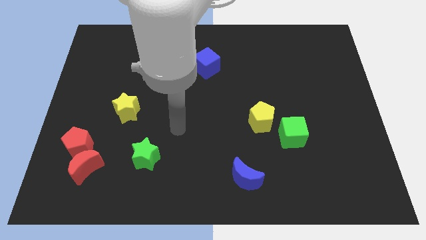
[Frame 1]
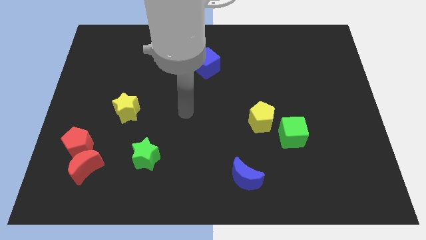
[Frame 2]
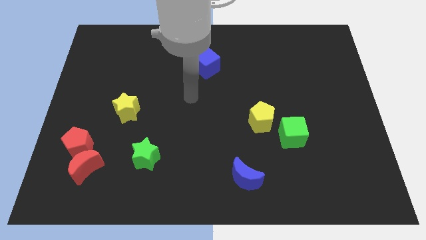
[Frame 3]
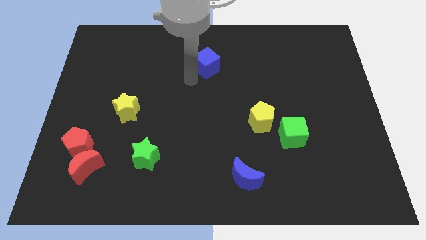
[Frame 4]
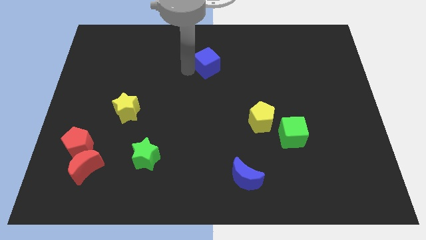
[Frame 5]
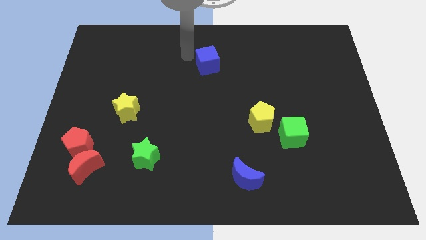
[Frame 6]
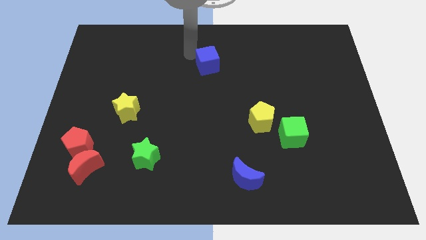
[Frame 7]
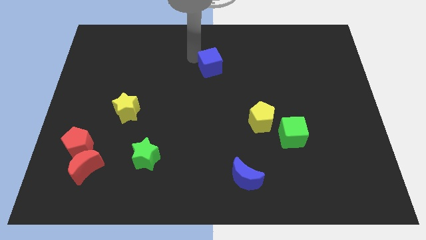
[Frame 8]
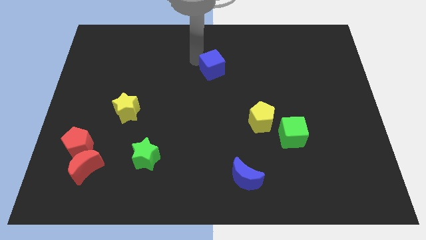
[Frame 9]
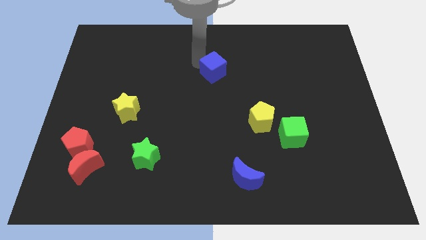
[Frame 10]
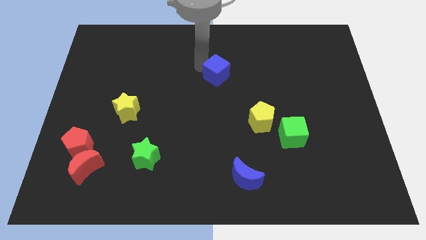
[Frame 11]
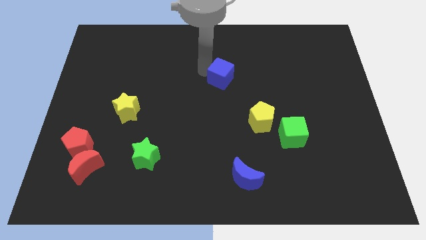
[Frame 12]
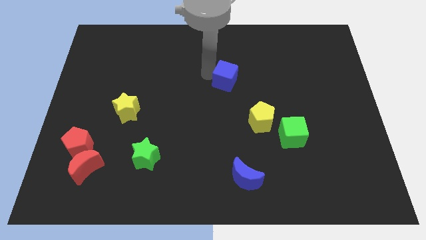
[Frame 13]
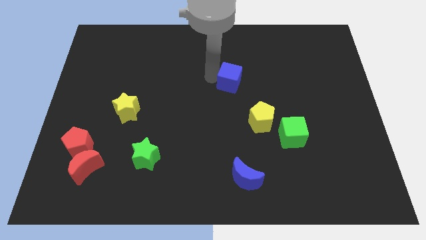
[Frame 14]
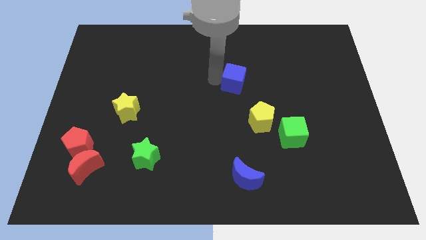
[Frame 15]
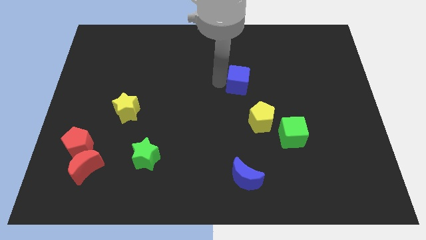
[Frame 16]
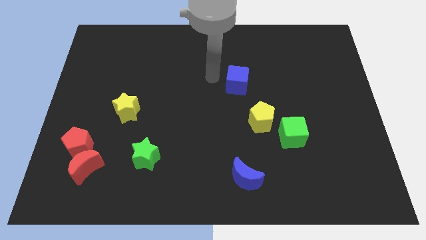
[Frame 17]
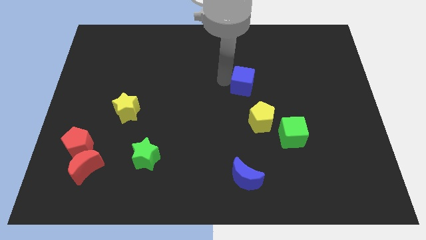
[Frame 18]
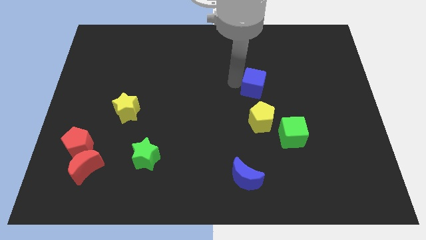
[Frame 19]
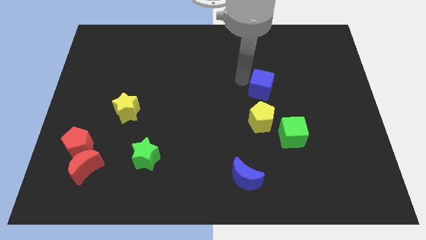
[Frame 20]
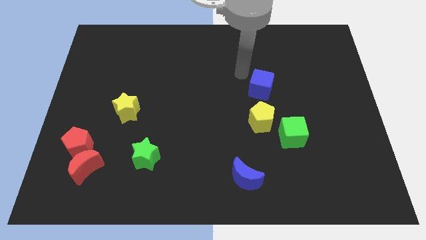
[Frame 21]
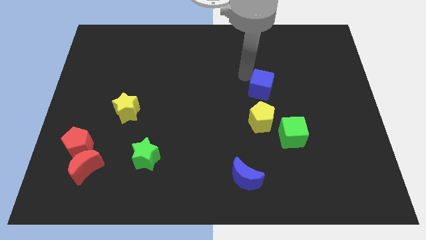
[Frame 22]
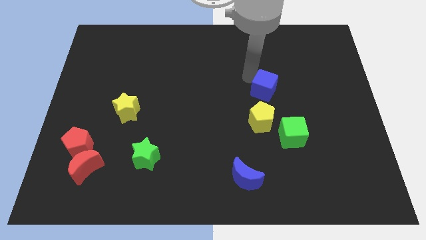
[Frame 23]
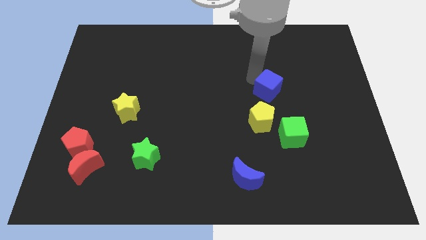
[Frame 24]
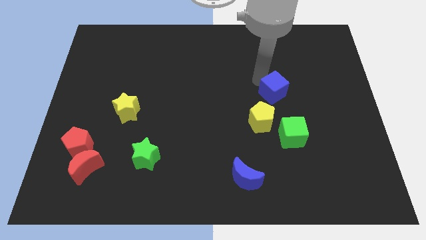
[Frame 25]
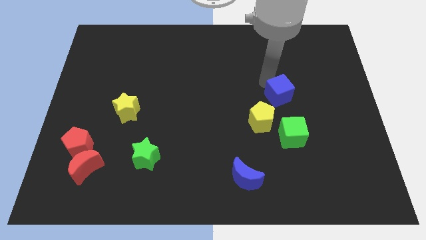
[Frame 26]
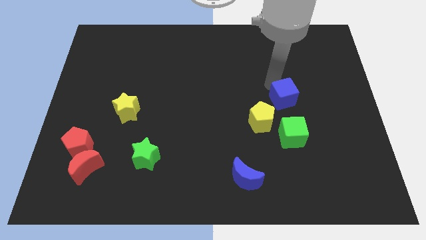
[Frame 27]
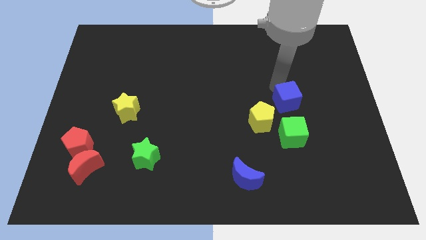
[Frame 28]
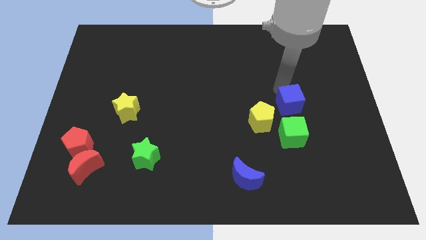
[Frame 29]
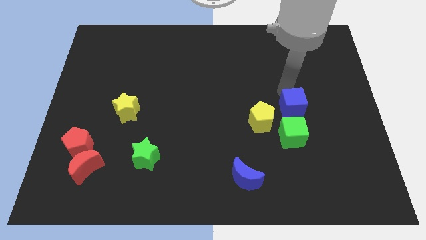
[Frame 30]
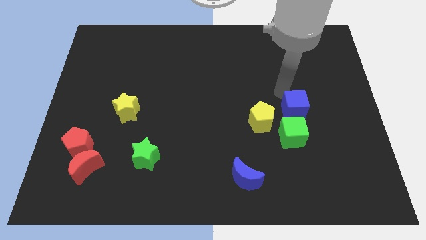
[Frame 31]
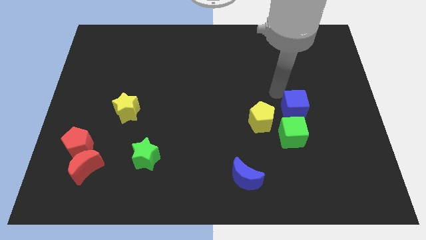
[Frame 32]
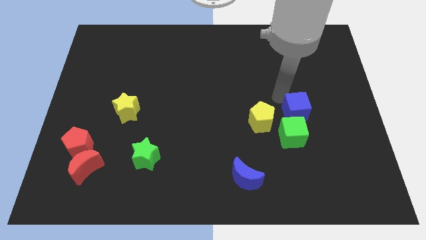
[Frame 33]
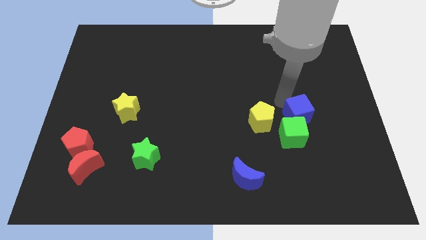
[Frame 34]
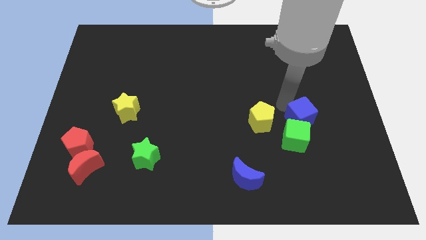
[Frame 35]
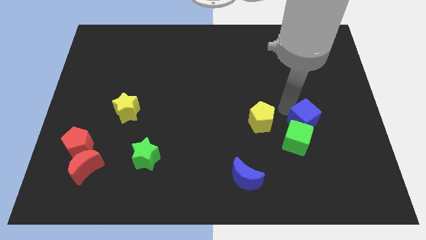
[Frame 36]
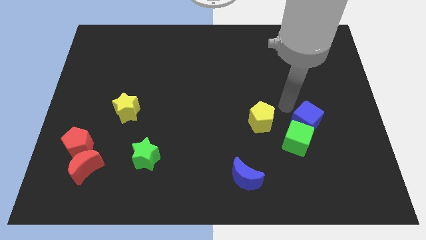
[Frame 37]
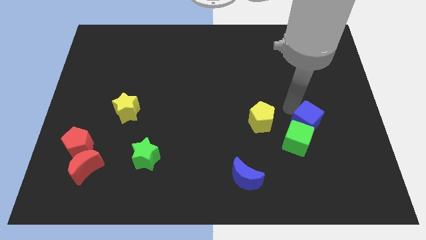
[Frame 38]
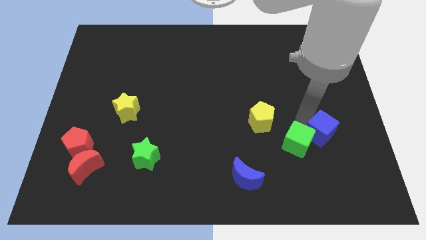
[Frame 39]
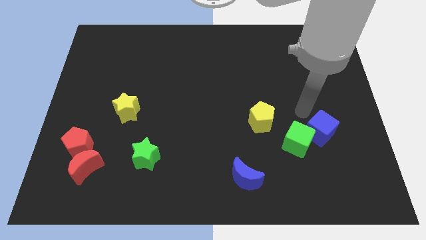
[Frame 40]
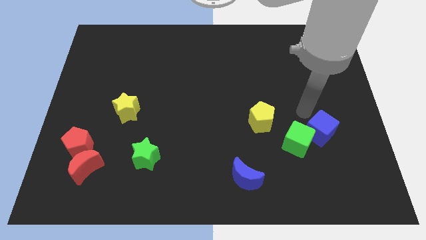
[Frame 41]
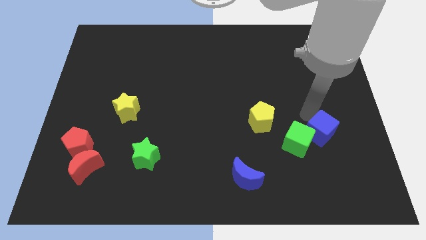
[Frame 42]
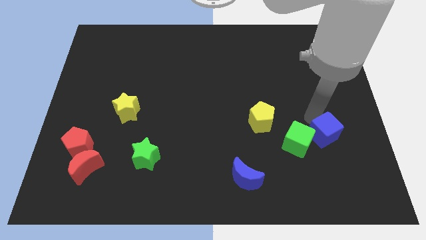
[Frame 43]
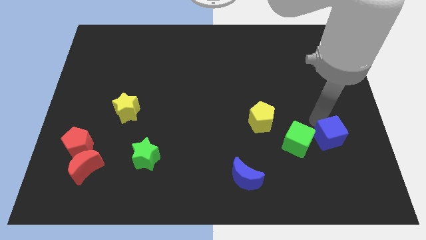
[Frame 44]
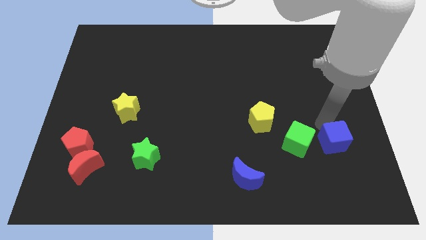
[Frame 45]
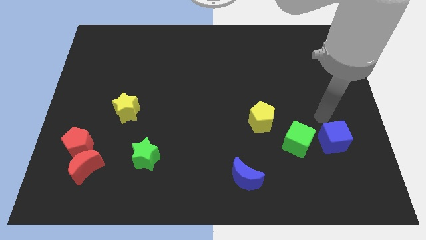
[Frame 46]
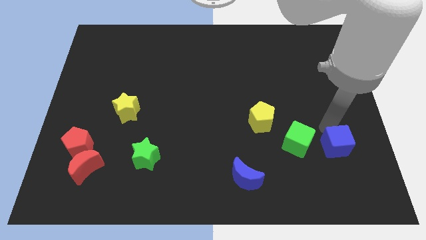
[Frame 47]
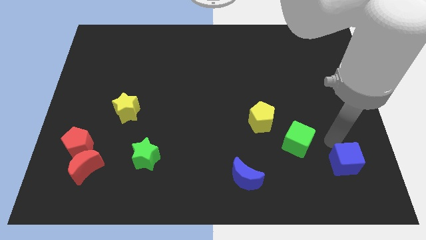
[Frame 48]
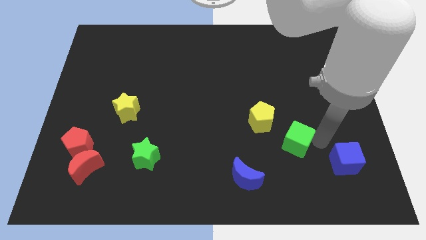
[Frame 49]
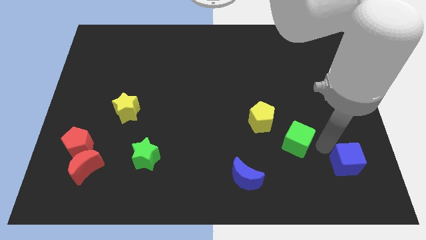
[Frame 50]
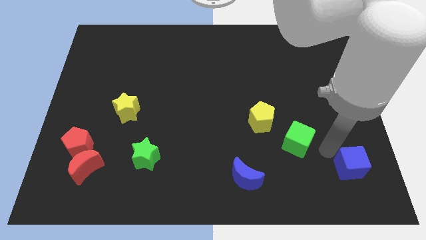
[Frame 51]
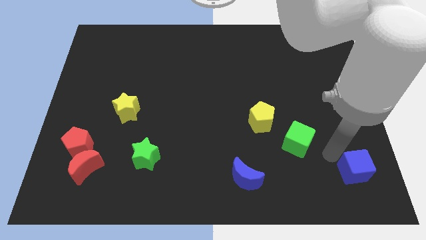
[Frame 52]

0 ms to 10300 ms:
move the blue cube to the bottom right corner
